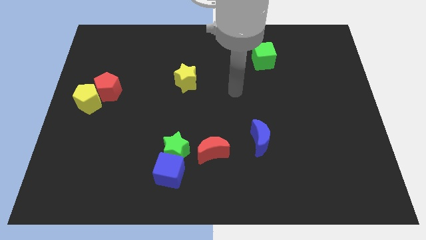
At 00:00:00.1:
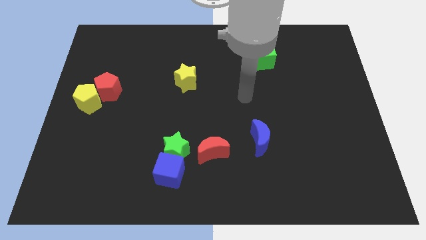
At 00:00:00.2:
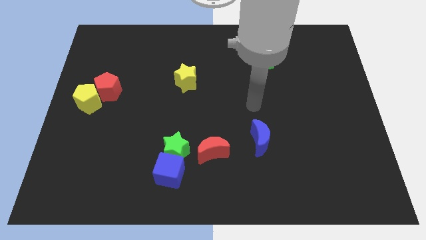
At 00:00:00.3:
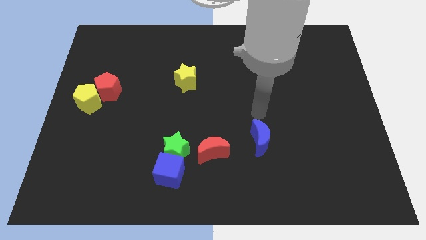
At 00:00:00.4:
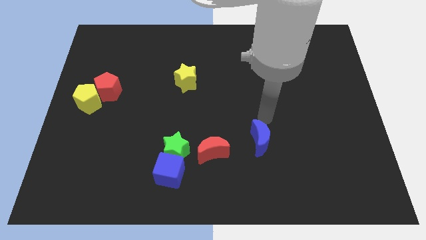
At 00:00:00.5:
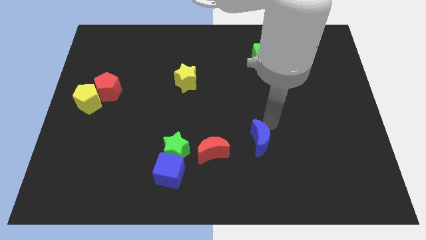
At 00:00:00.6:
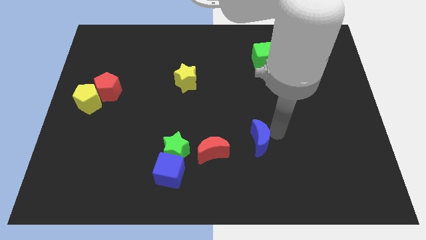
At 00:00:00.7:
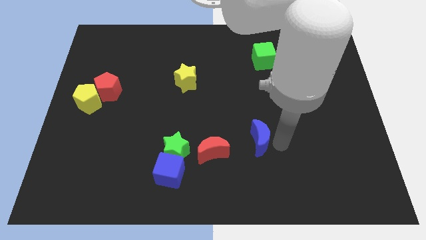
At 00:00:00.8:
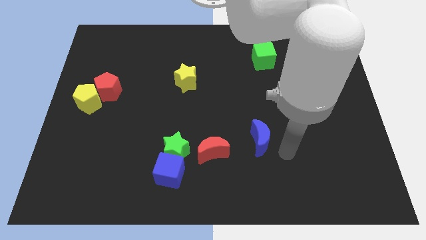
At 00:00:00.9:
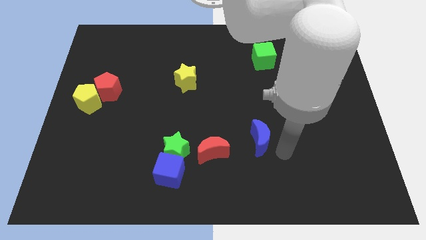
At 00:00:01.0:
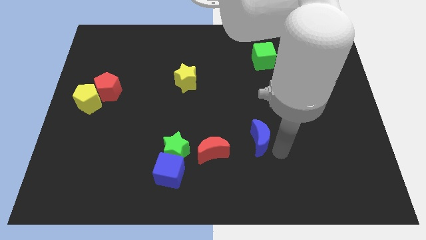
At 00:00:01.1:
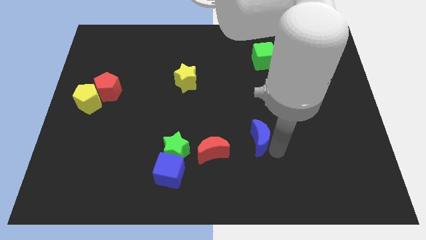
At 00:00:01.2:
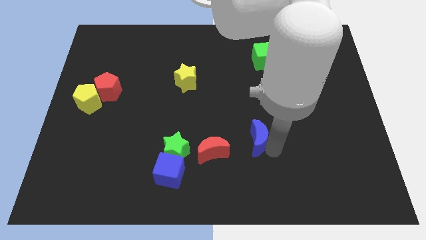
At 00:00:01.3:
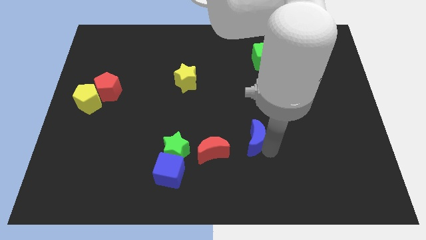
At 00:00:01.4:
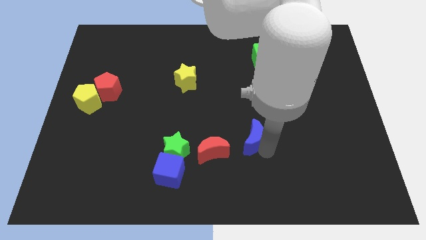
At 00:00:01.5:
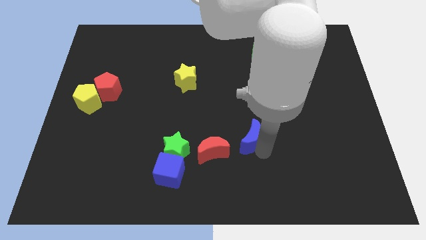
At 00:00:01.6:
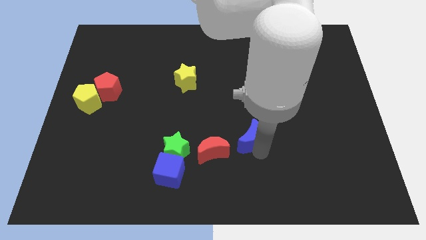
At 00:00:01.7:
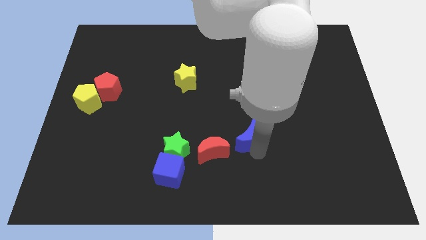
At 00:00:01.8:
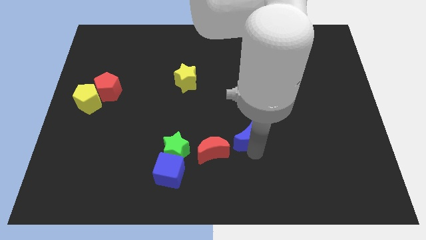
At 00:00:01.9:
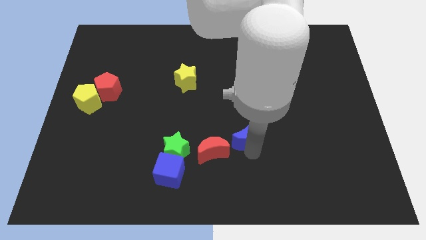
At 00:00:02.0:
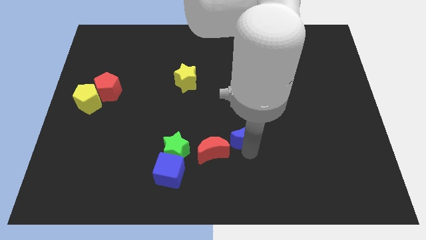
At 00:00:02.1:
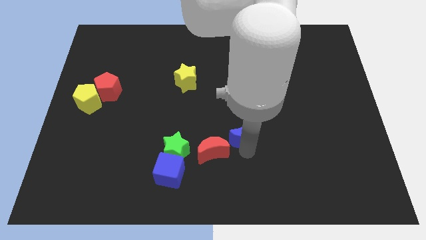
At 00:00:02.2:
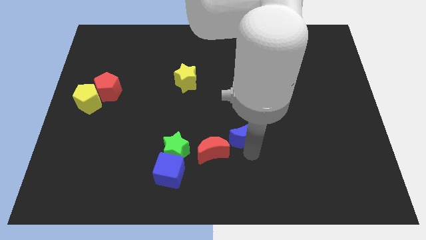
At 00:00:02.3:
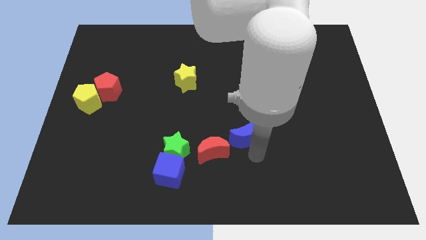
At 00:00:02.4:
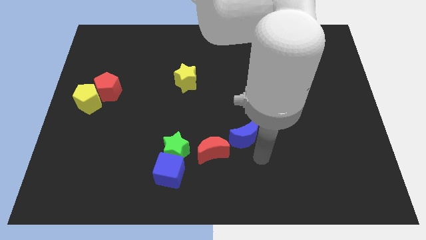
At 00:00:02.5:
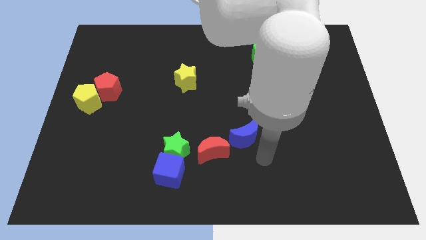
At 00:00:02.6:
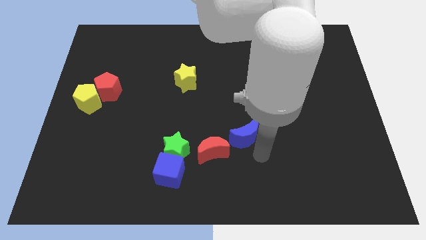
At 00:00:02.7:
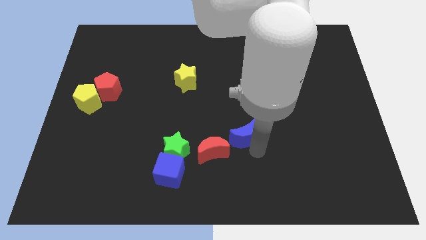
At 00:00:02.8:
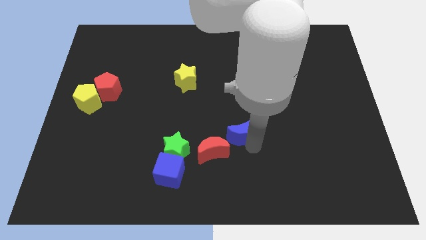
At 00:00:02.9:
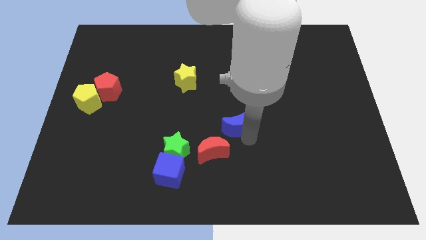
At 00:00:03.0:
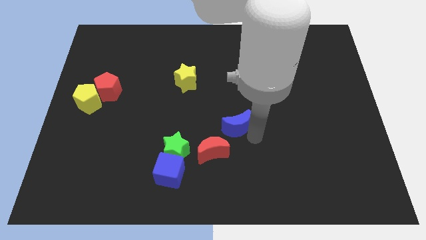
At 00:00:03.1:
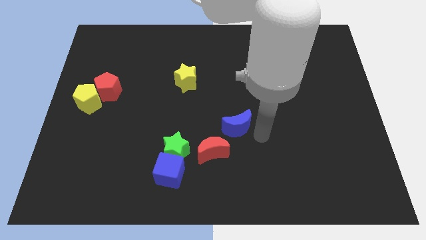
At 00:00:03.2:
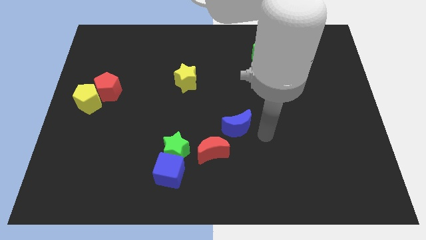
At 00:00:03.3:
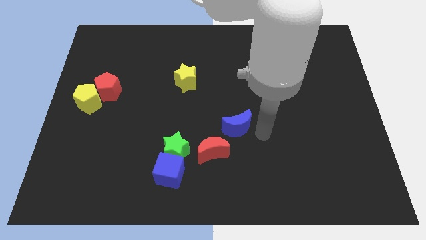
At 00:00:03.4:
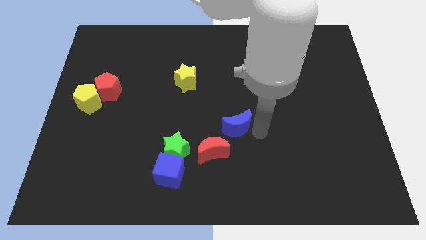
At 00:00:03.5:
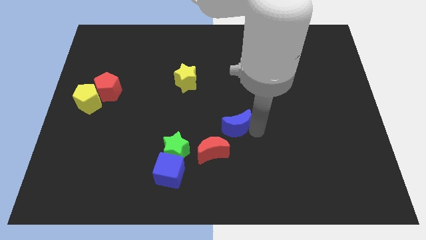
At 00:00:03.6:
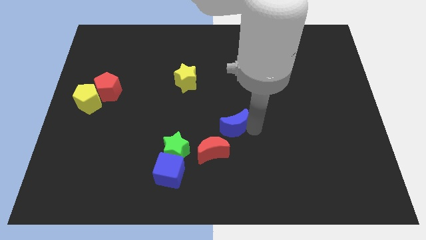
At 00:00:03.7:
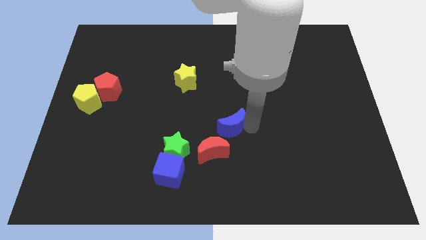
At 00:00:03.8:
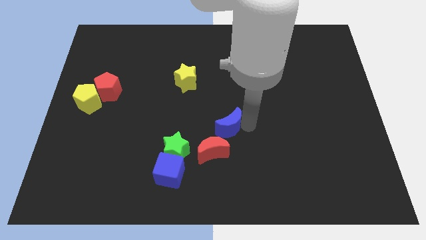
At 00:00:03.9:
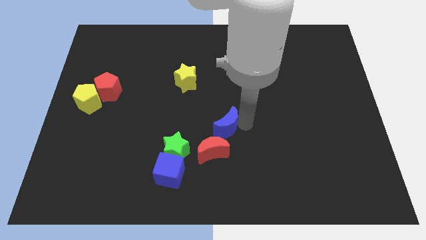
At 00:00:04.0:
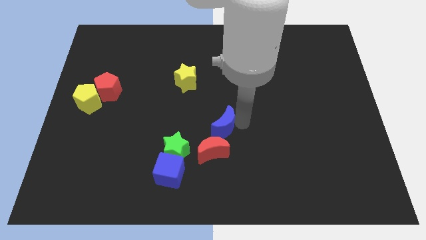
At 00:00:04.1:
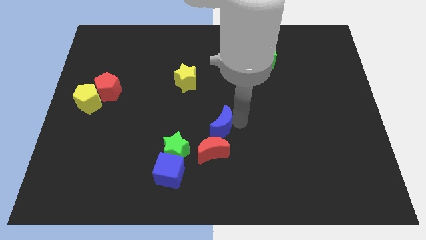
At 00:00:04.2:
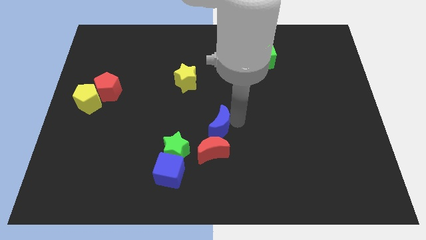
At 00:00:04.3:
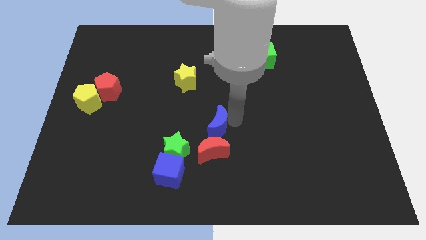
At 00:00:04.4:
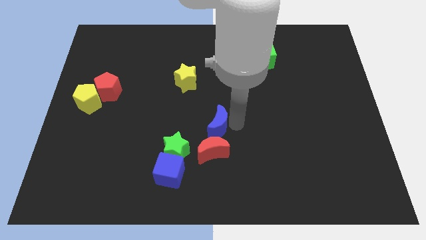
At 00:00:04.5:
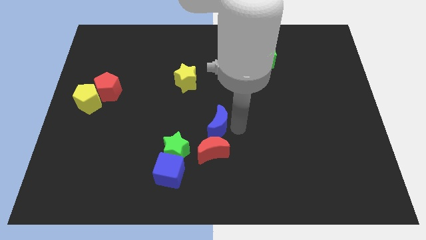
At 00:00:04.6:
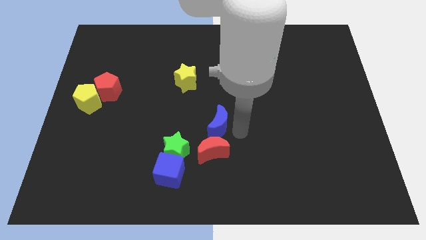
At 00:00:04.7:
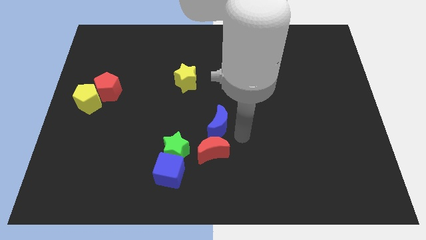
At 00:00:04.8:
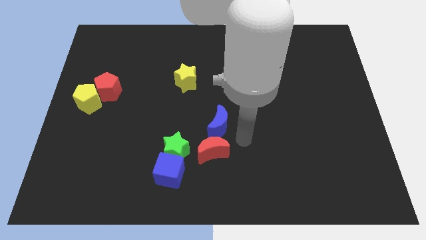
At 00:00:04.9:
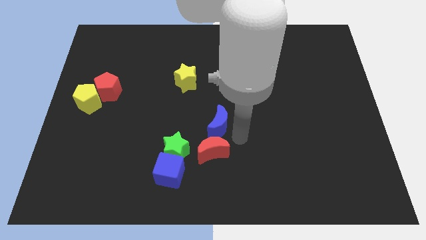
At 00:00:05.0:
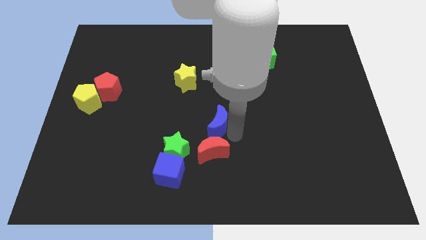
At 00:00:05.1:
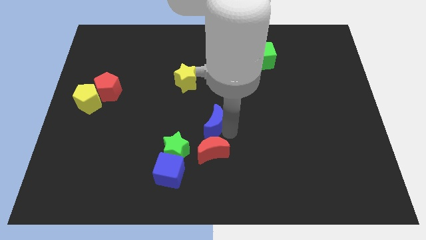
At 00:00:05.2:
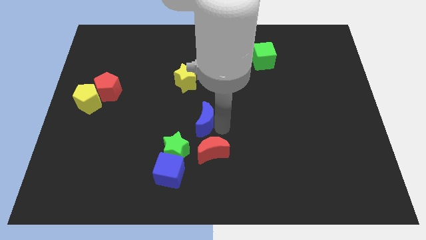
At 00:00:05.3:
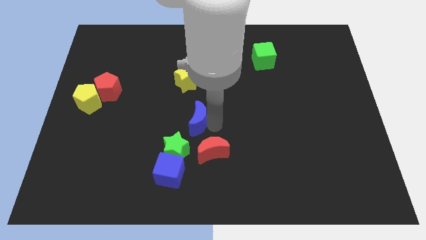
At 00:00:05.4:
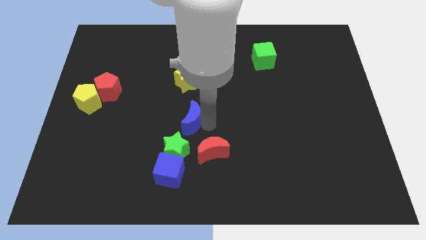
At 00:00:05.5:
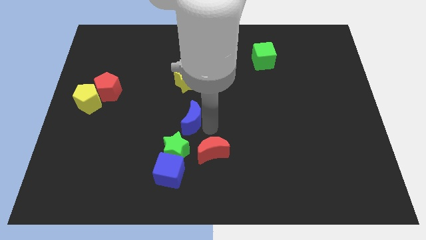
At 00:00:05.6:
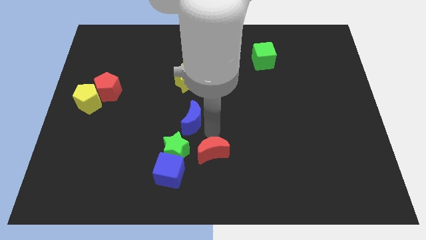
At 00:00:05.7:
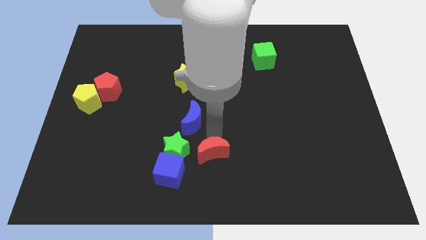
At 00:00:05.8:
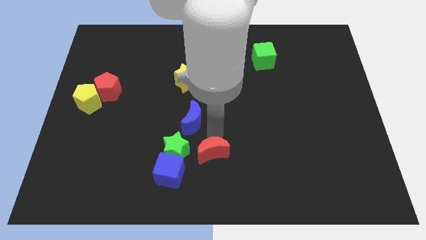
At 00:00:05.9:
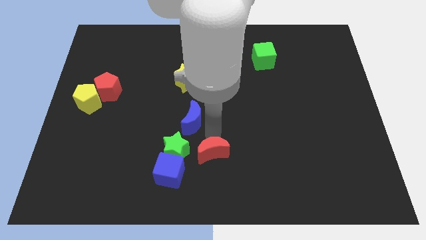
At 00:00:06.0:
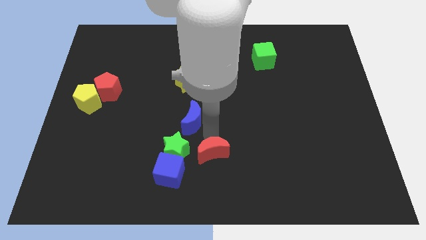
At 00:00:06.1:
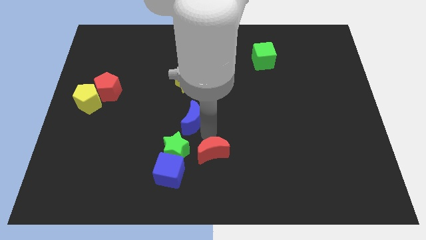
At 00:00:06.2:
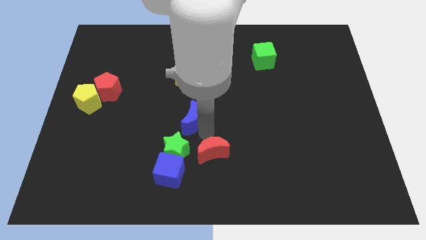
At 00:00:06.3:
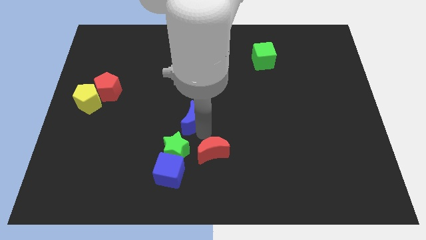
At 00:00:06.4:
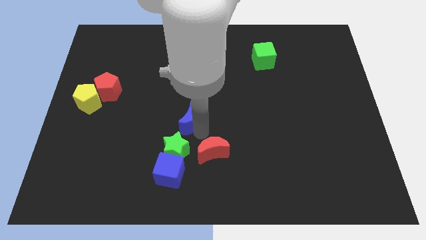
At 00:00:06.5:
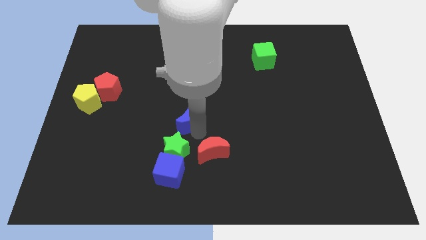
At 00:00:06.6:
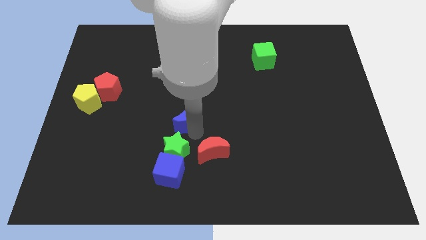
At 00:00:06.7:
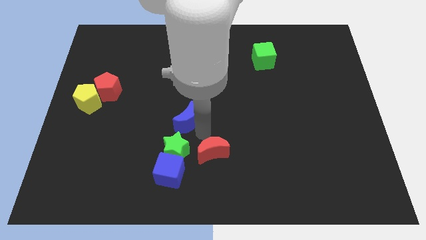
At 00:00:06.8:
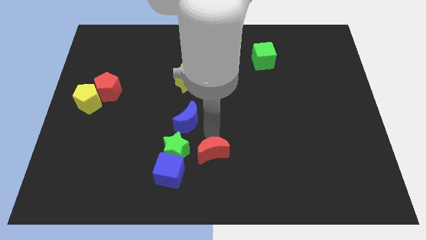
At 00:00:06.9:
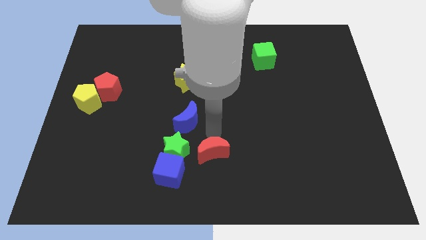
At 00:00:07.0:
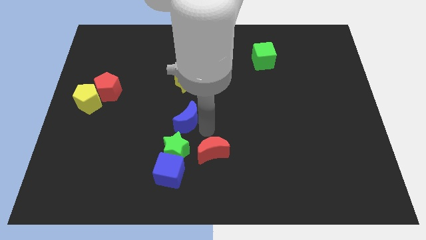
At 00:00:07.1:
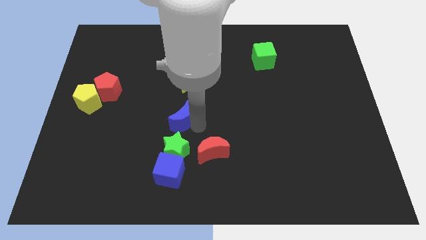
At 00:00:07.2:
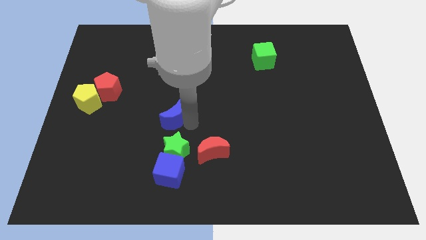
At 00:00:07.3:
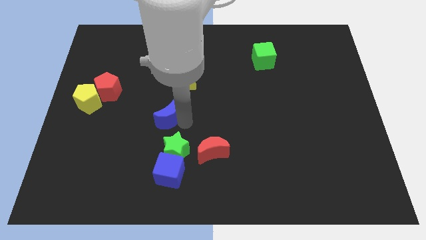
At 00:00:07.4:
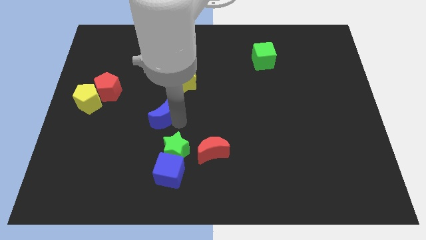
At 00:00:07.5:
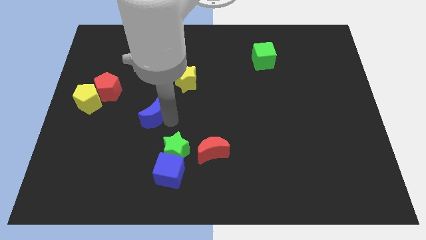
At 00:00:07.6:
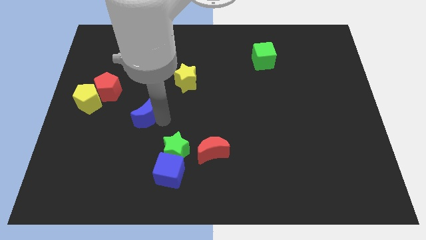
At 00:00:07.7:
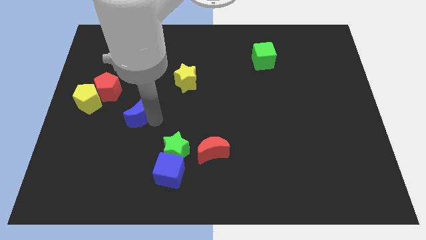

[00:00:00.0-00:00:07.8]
push the blue moon to the right of the yellow pentagon
